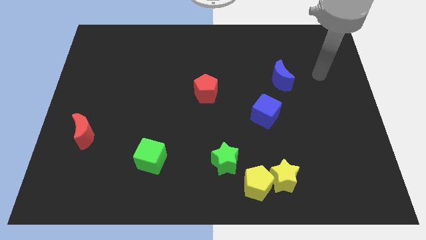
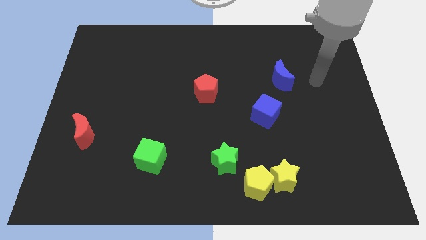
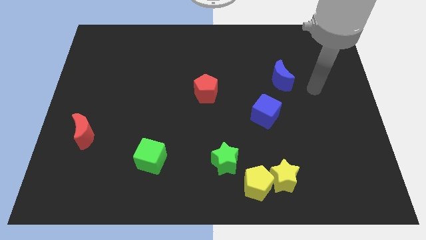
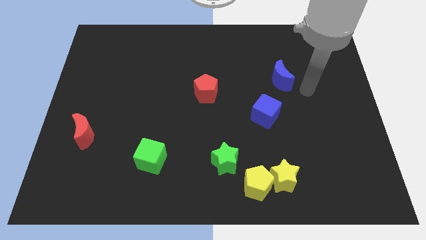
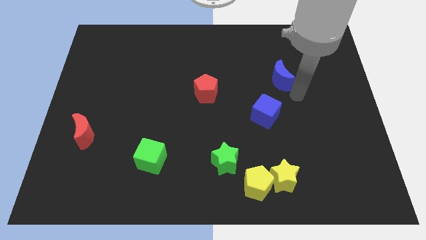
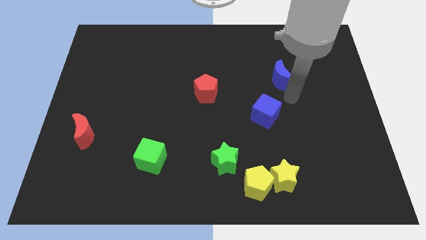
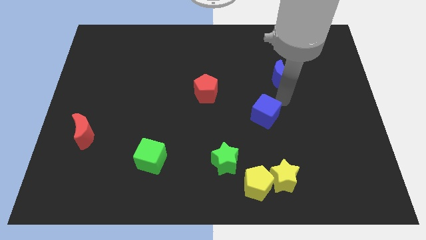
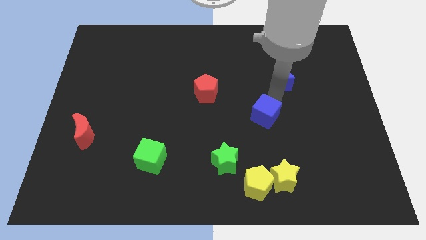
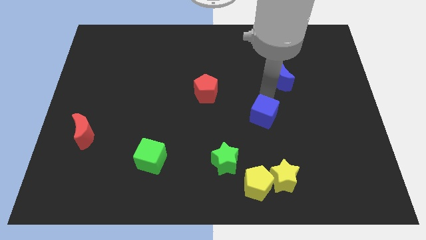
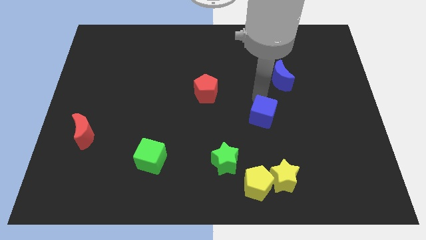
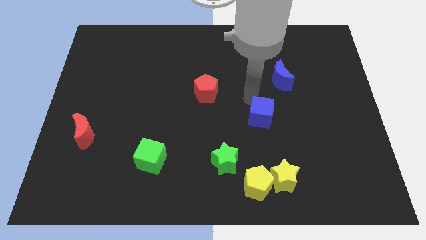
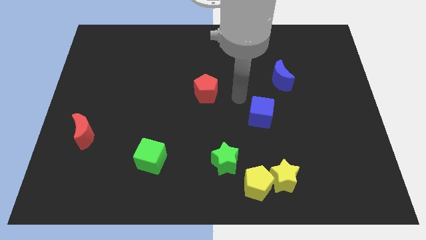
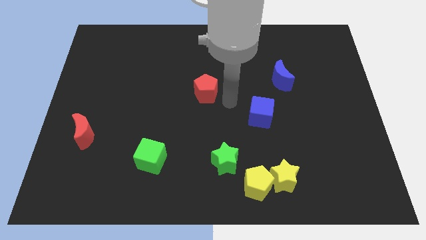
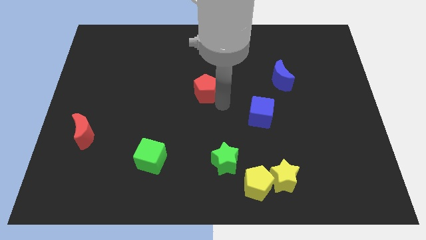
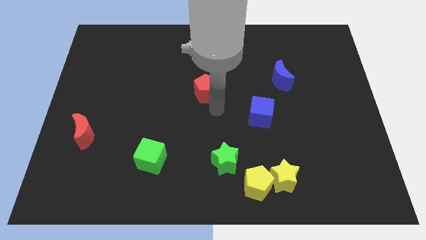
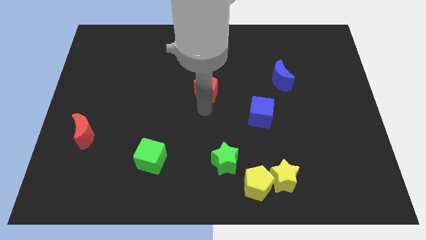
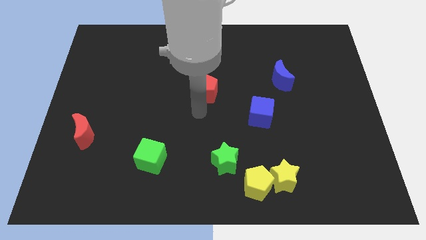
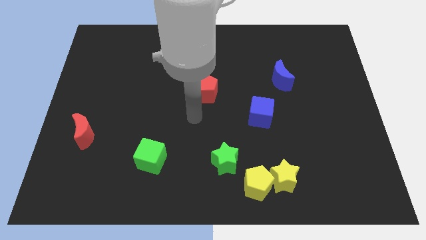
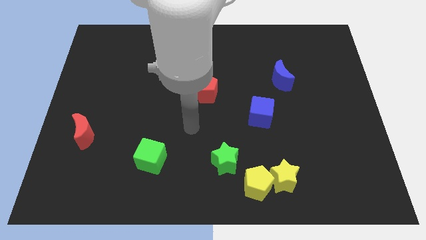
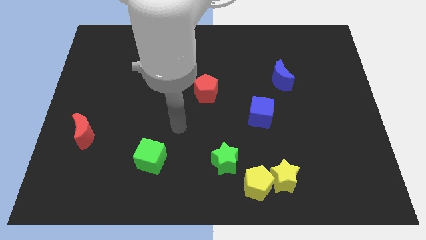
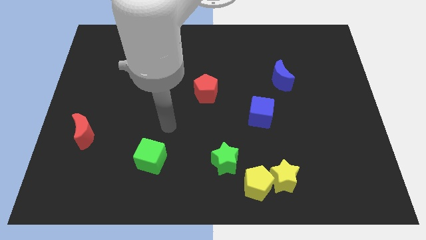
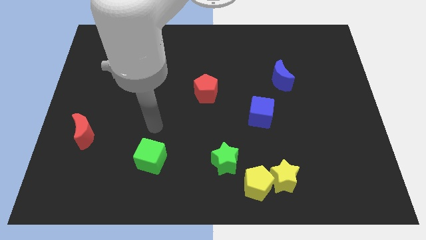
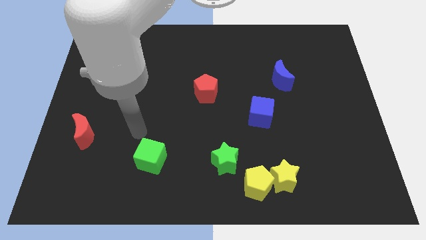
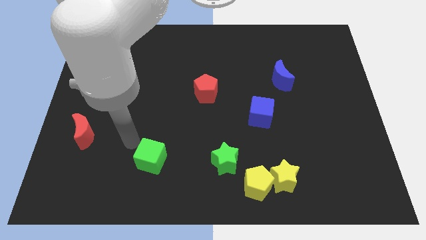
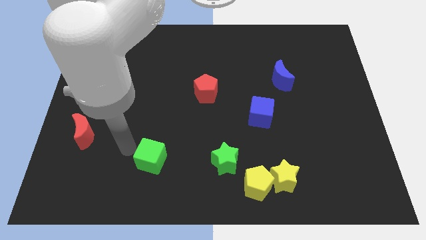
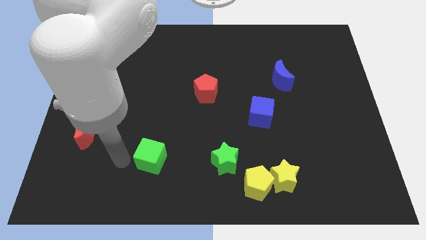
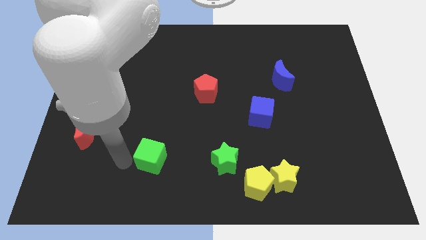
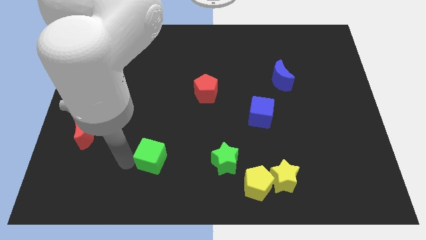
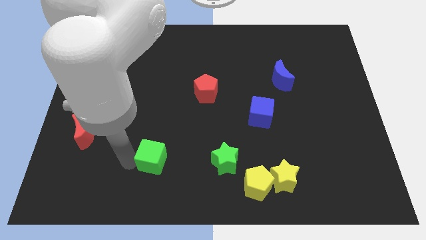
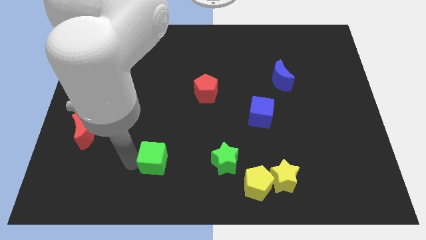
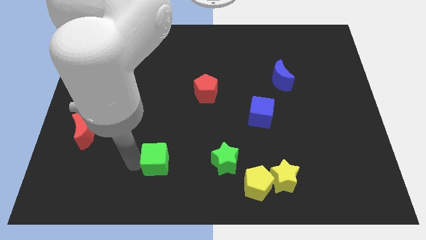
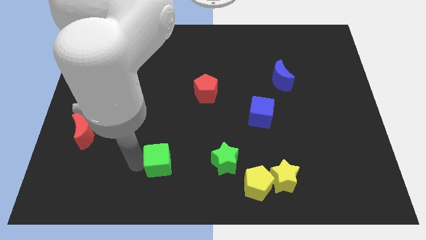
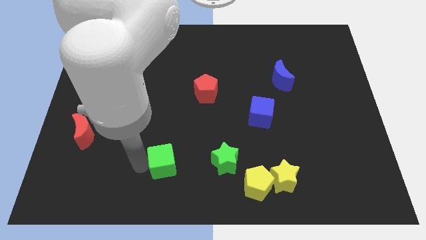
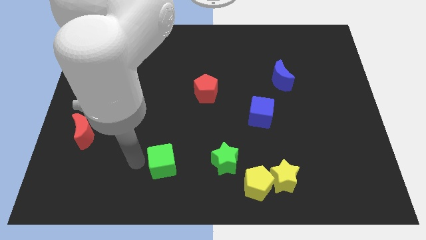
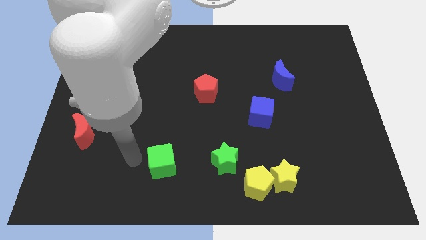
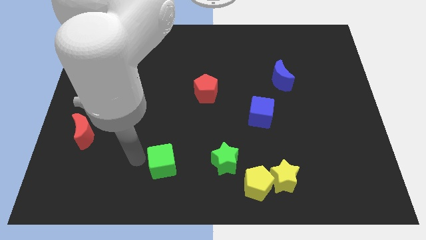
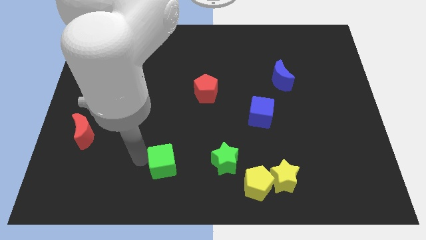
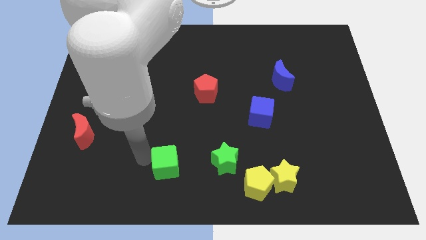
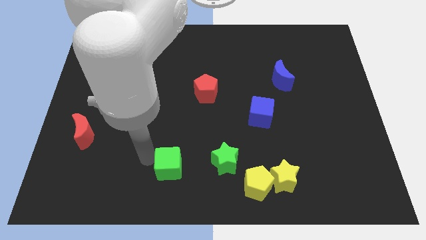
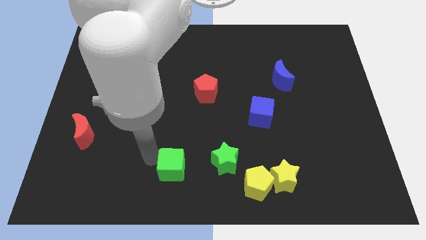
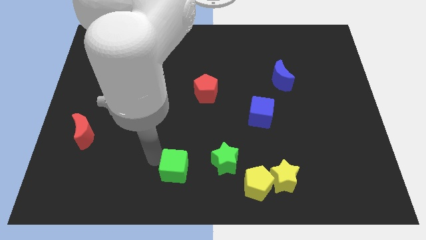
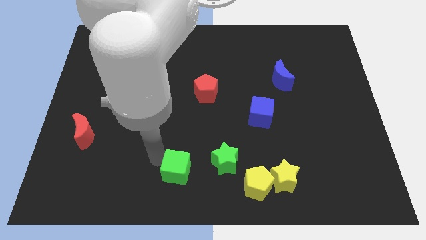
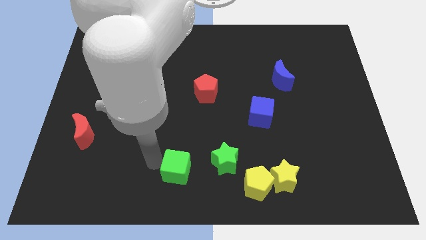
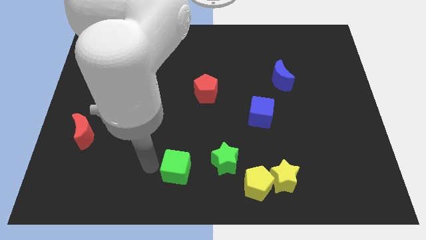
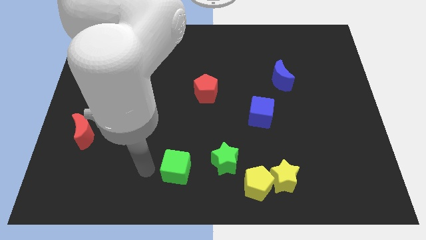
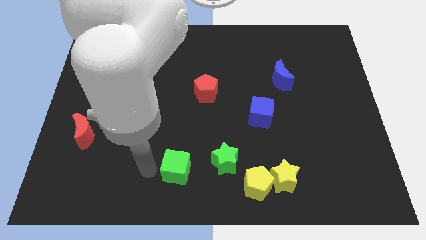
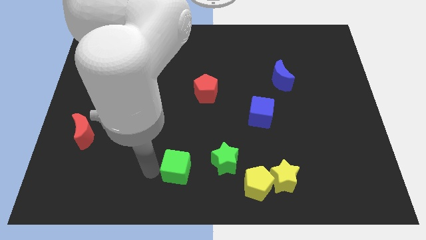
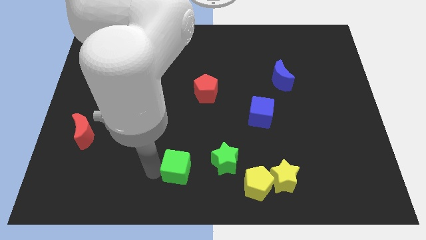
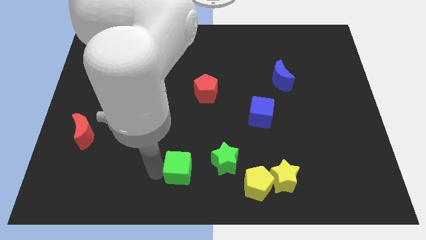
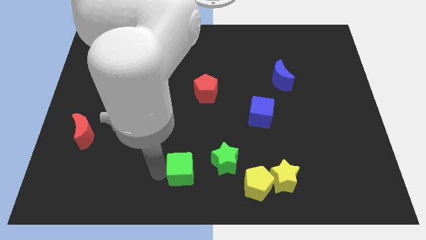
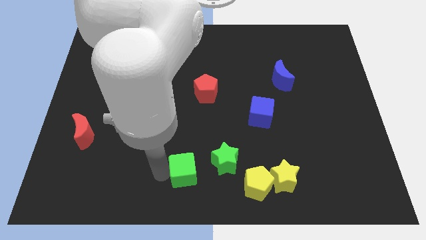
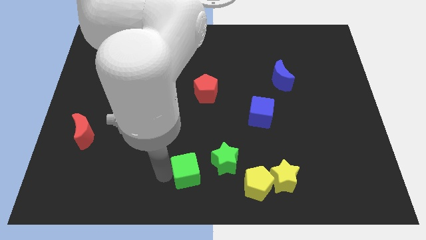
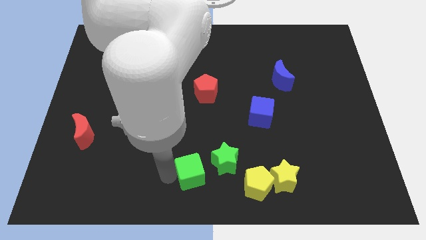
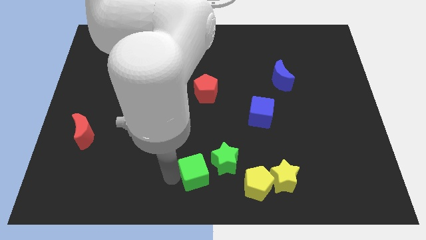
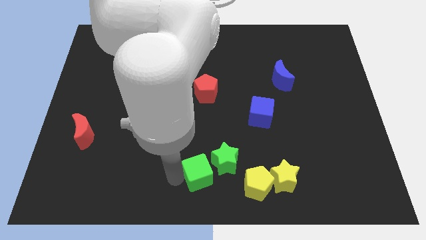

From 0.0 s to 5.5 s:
slide the green cube close to the green star

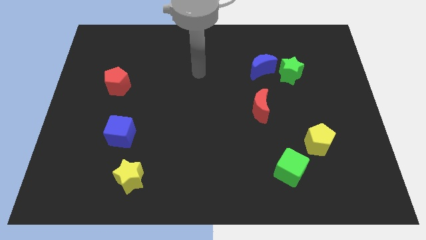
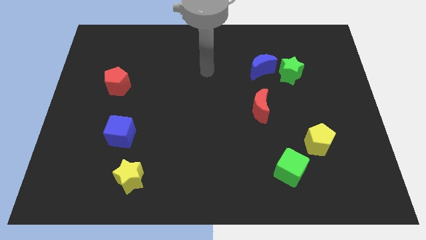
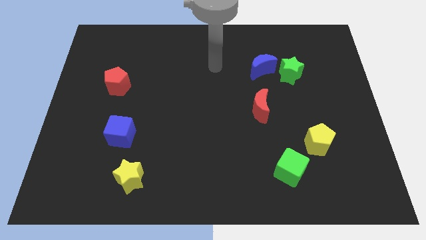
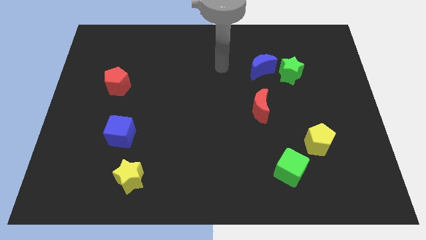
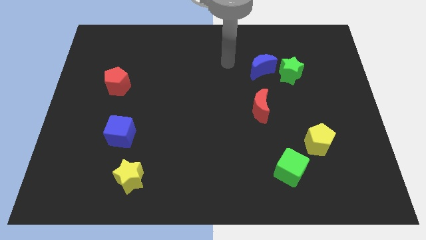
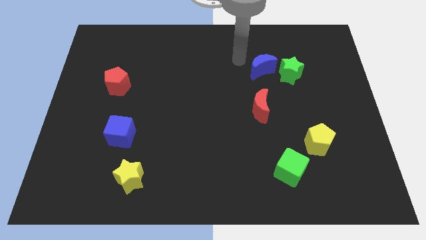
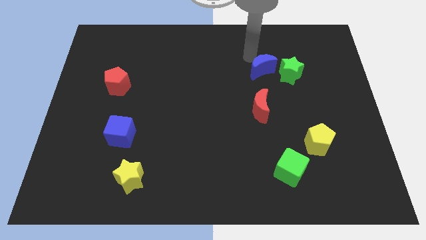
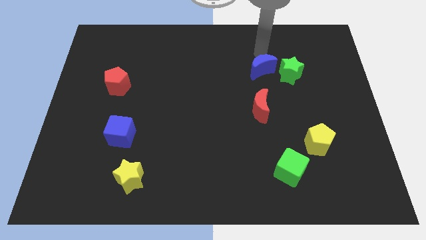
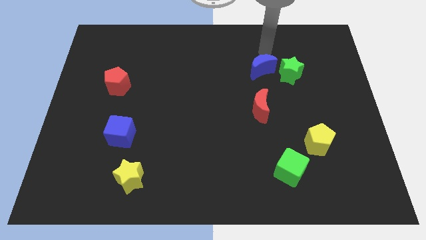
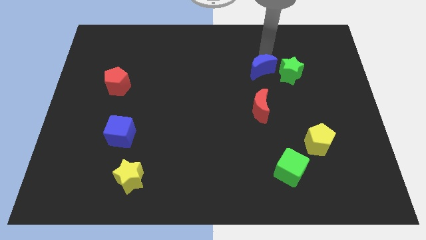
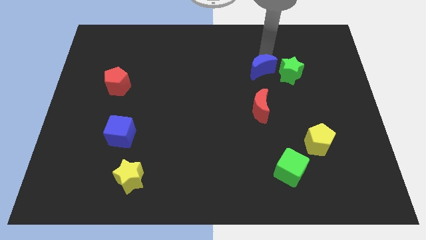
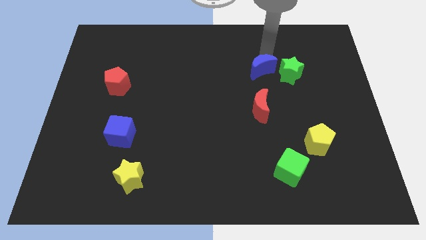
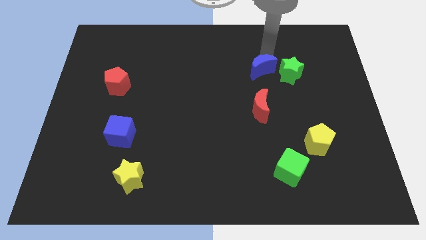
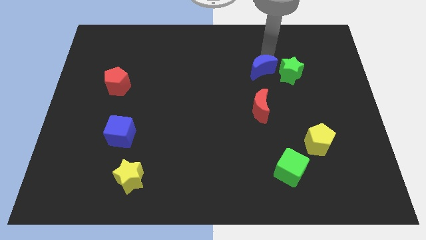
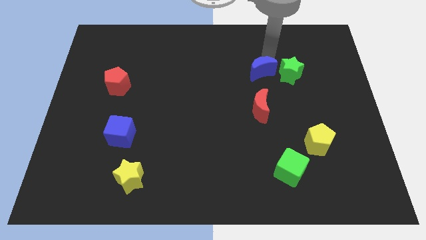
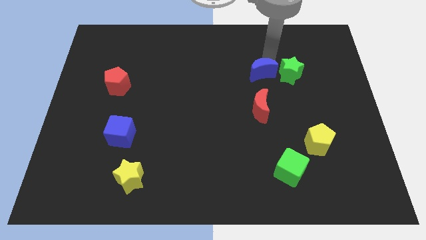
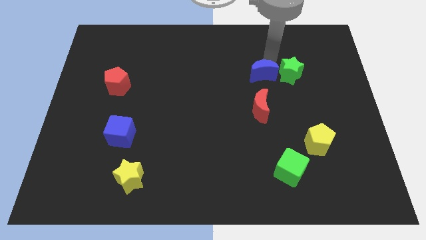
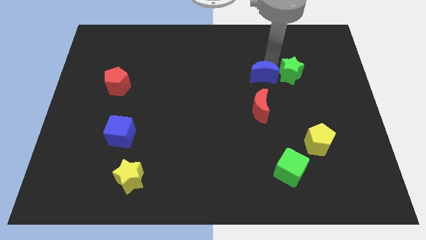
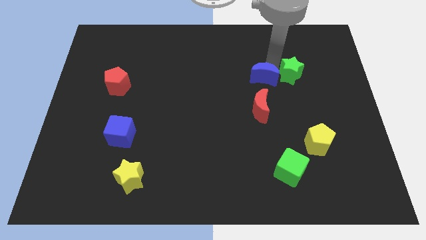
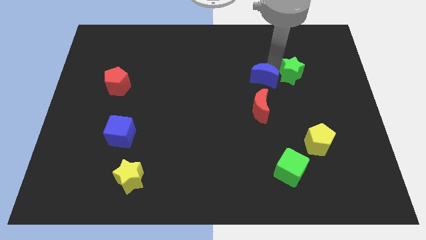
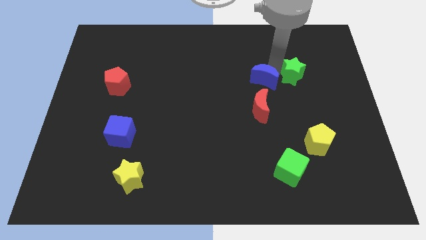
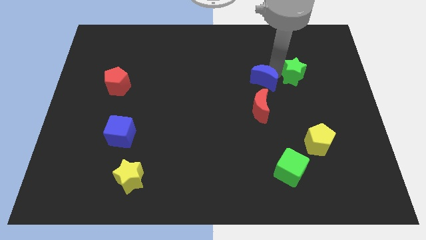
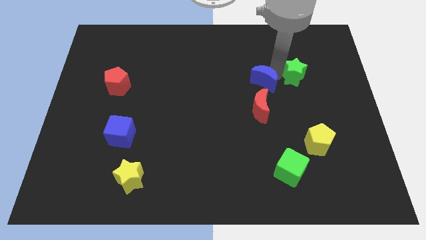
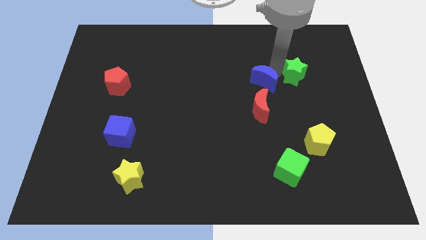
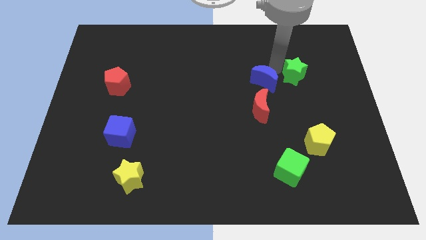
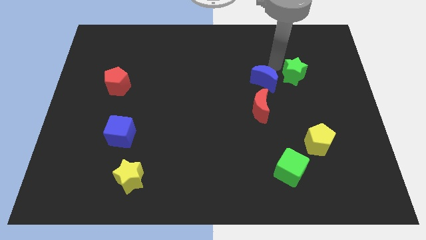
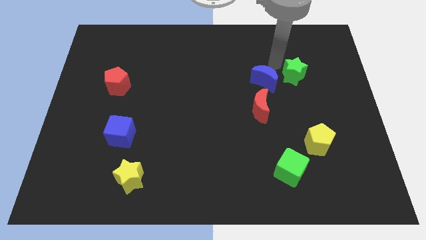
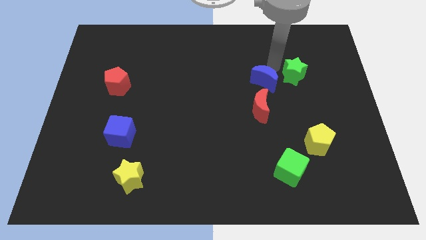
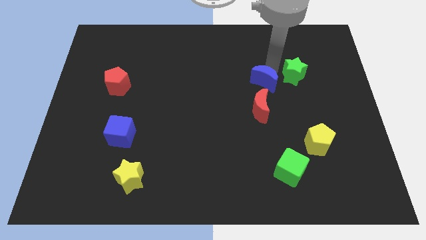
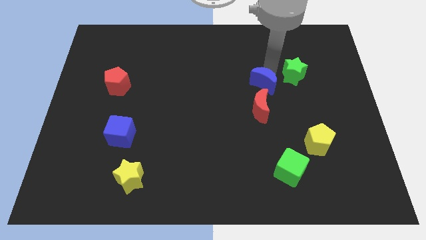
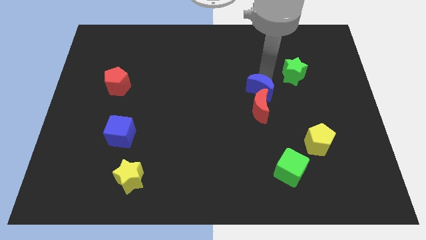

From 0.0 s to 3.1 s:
push the blue moon to the red moon
